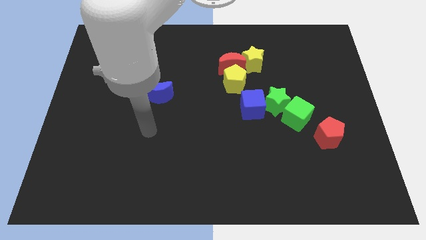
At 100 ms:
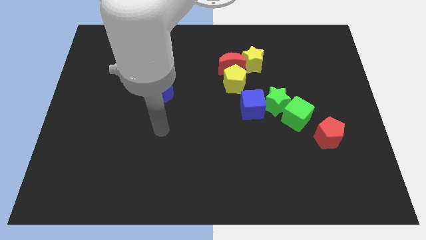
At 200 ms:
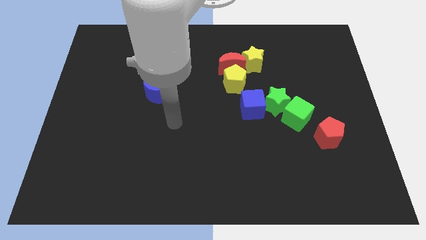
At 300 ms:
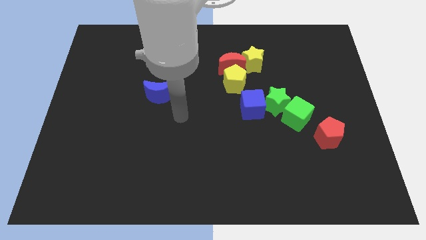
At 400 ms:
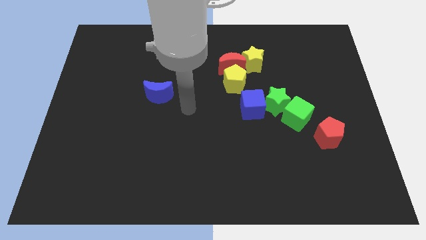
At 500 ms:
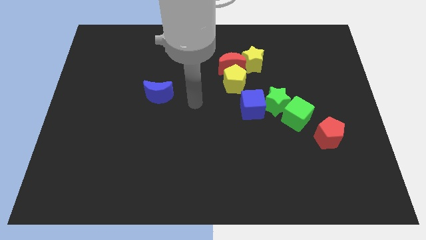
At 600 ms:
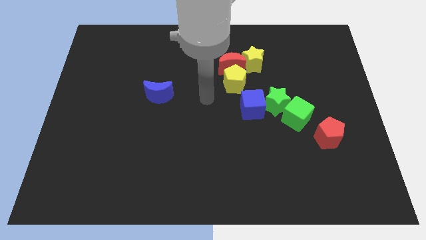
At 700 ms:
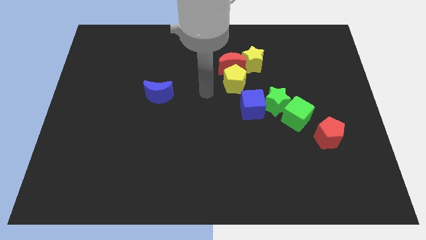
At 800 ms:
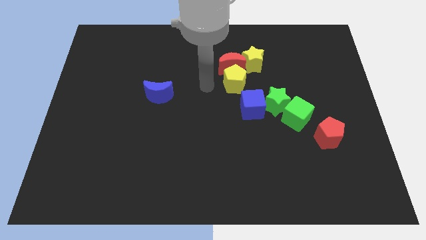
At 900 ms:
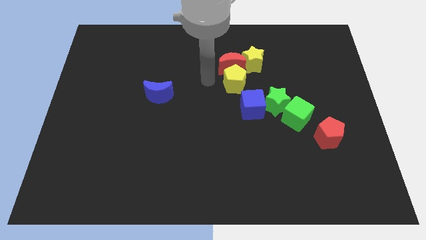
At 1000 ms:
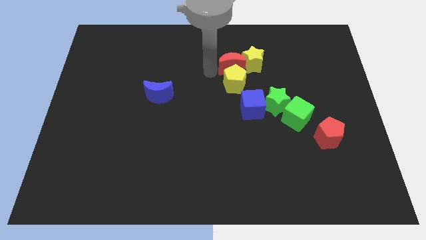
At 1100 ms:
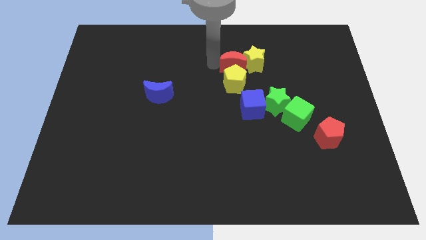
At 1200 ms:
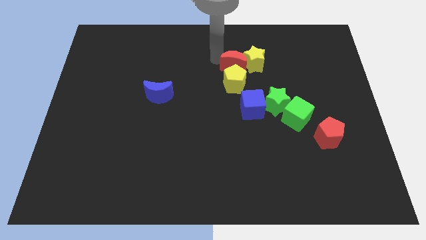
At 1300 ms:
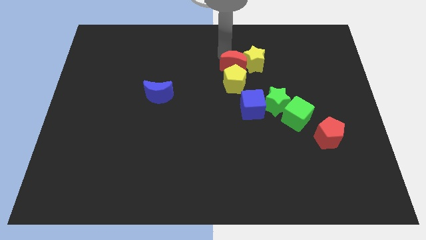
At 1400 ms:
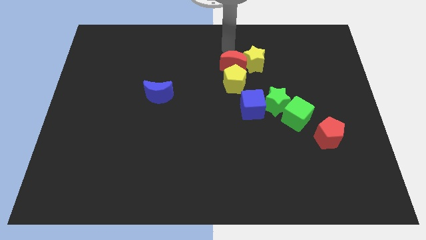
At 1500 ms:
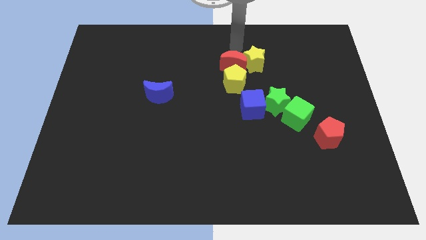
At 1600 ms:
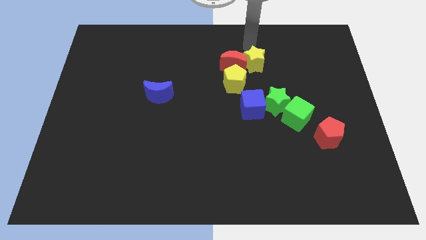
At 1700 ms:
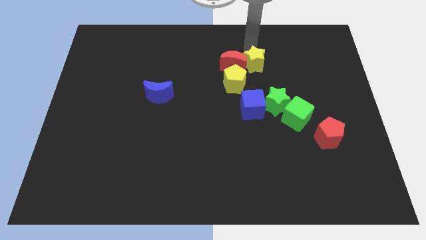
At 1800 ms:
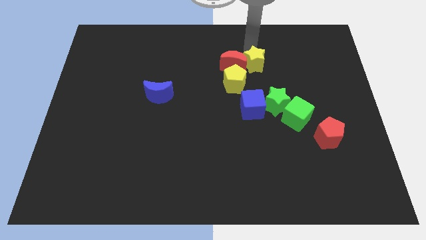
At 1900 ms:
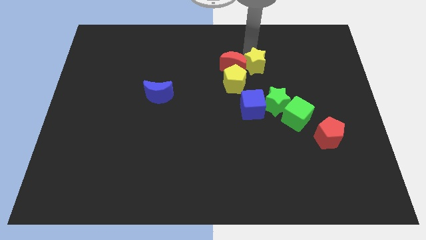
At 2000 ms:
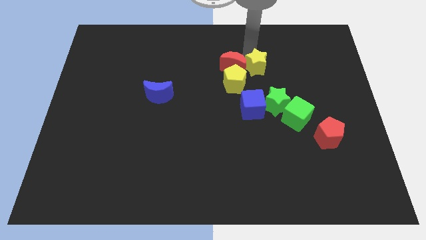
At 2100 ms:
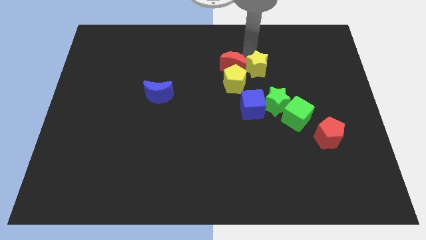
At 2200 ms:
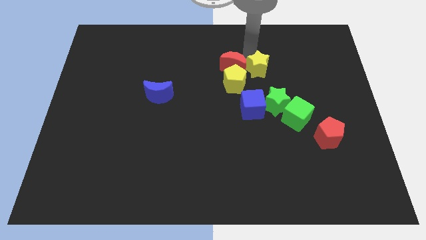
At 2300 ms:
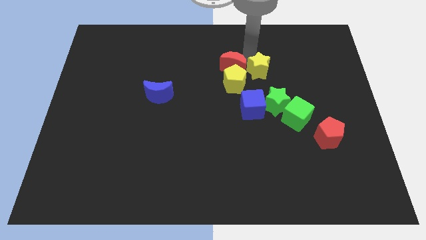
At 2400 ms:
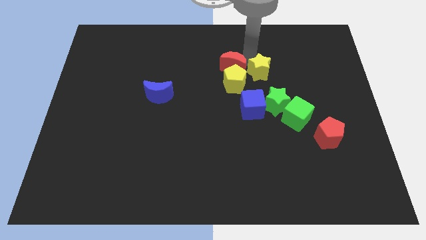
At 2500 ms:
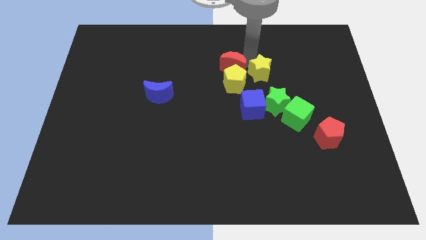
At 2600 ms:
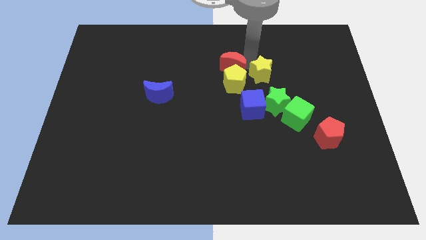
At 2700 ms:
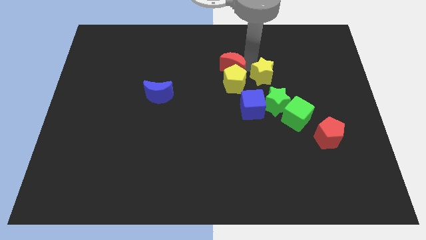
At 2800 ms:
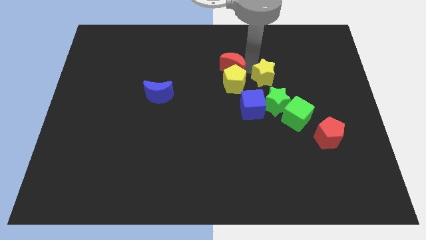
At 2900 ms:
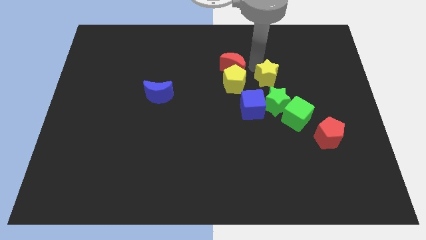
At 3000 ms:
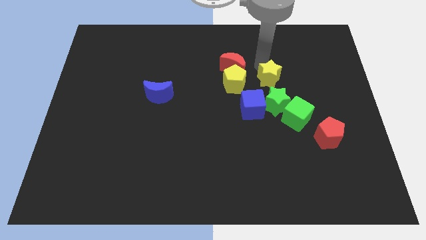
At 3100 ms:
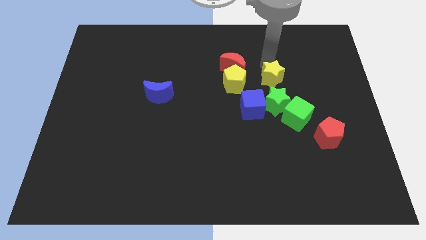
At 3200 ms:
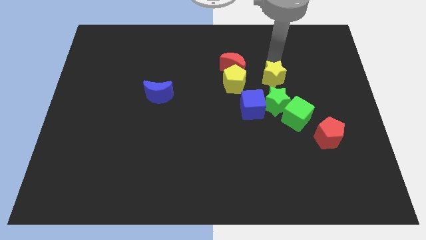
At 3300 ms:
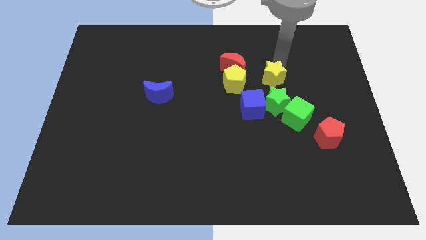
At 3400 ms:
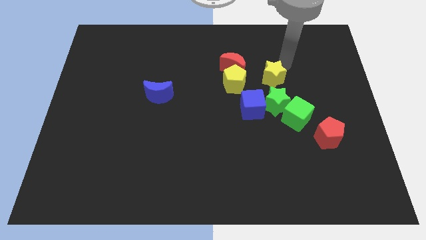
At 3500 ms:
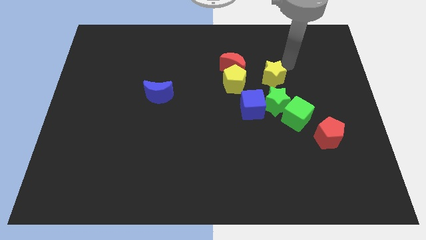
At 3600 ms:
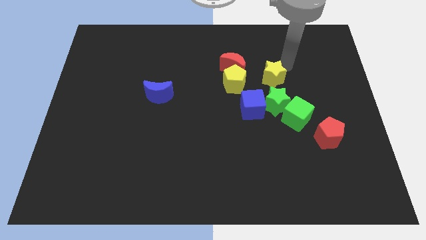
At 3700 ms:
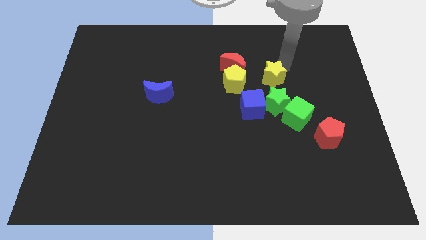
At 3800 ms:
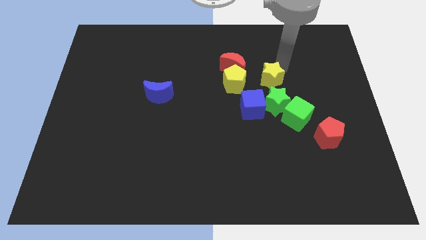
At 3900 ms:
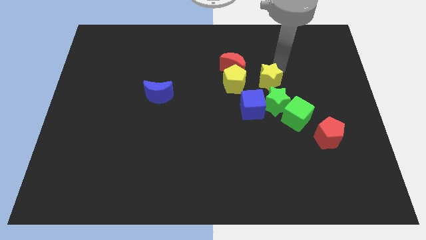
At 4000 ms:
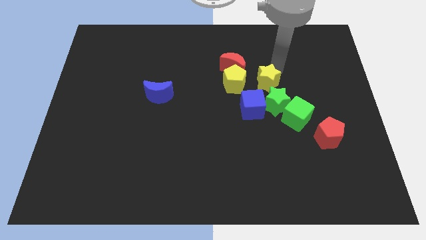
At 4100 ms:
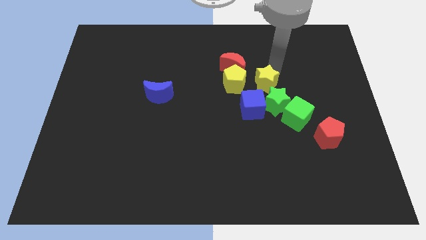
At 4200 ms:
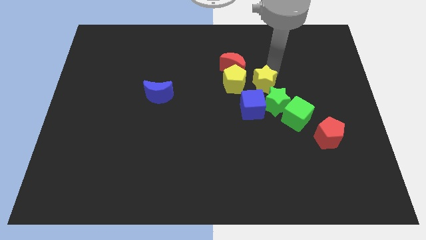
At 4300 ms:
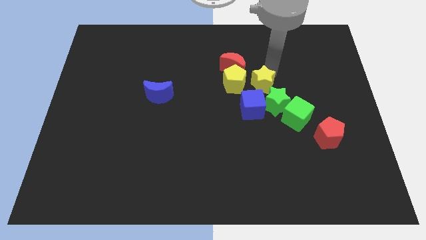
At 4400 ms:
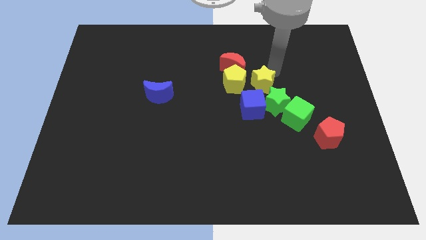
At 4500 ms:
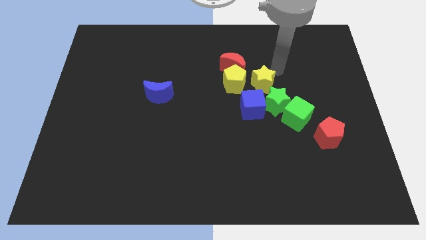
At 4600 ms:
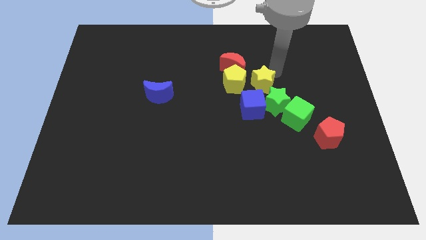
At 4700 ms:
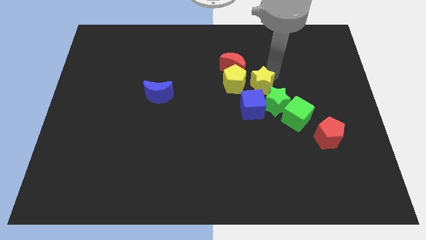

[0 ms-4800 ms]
slide the yellow star to the middle of the board

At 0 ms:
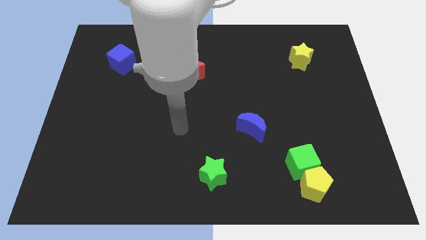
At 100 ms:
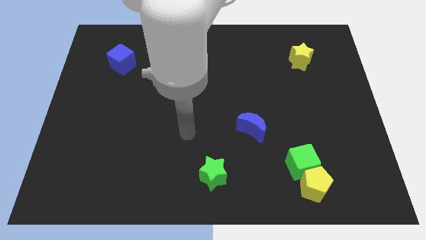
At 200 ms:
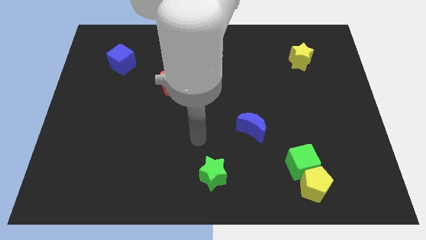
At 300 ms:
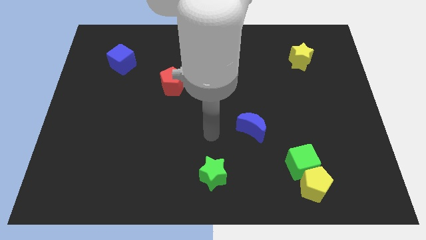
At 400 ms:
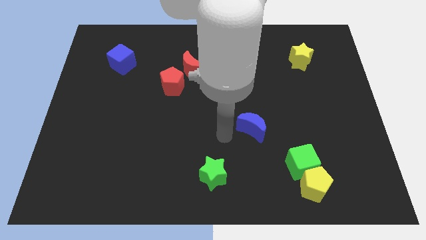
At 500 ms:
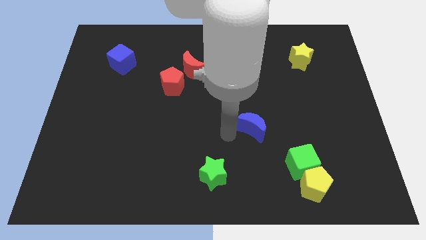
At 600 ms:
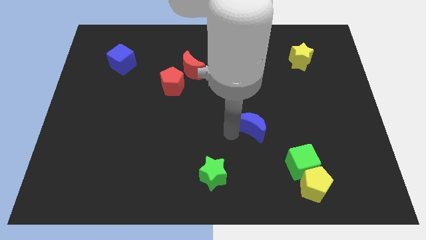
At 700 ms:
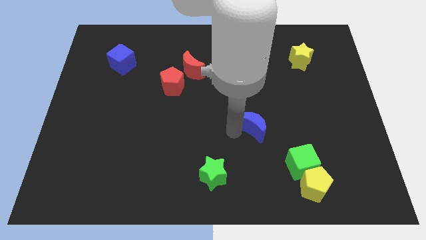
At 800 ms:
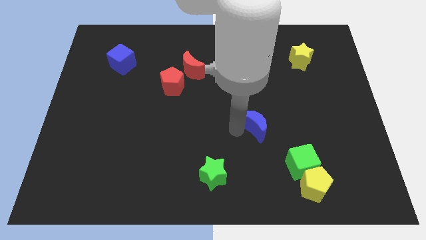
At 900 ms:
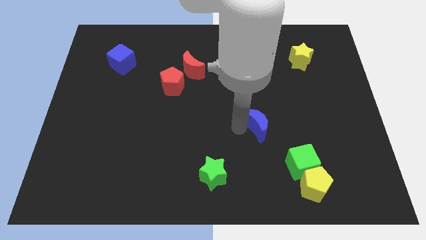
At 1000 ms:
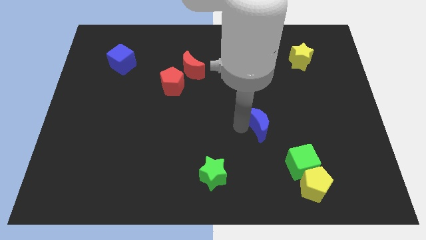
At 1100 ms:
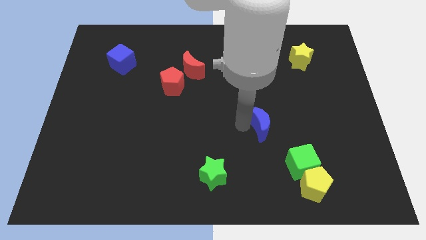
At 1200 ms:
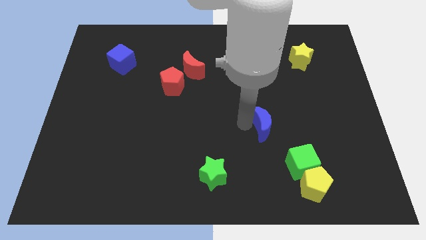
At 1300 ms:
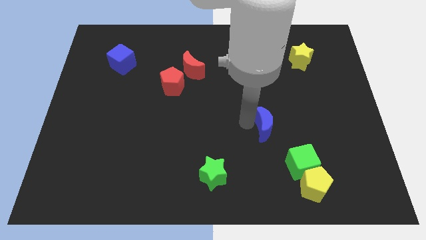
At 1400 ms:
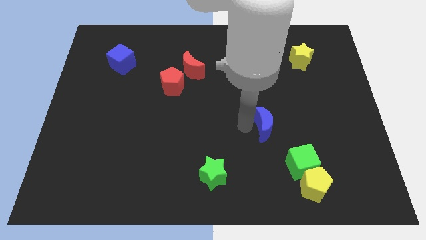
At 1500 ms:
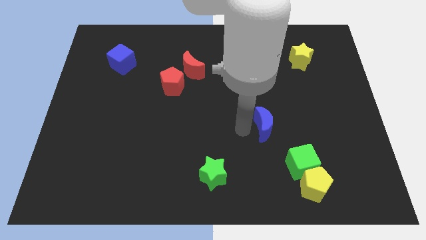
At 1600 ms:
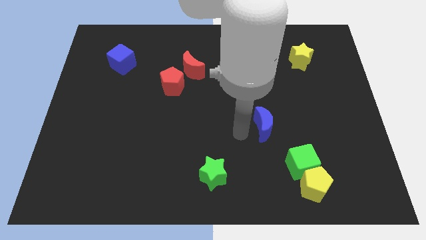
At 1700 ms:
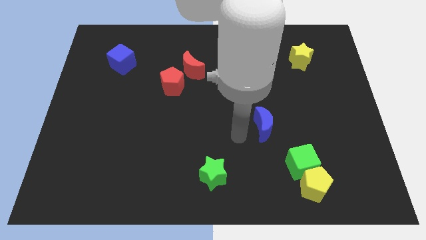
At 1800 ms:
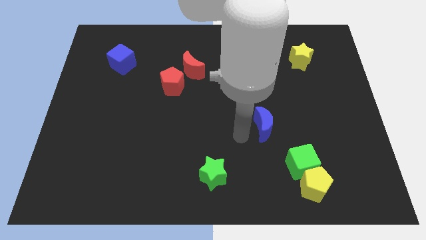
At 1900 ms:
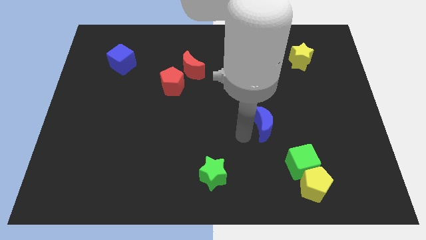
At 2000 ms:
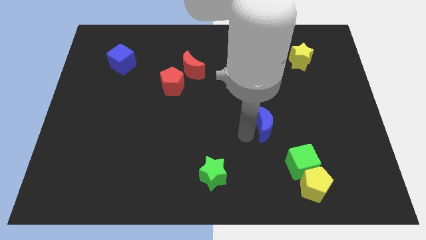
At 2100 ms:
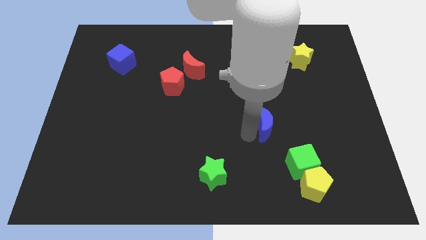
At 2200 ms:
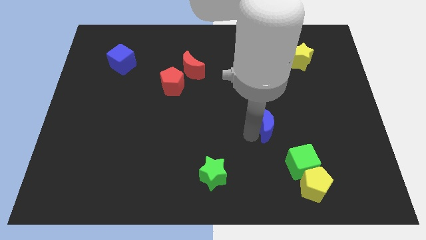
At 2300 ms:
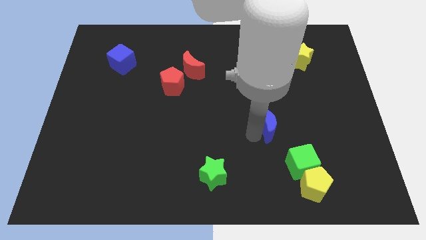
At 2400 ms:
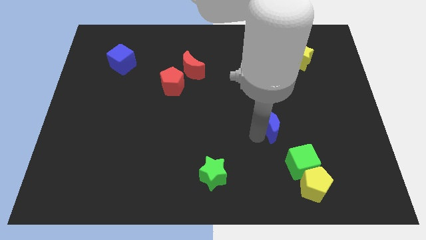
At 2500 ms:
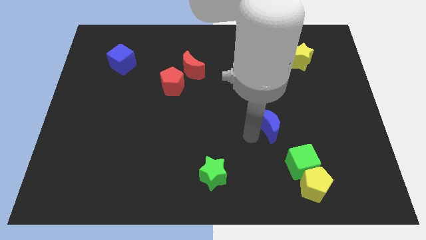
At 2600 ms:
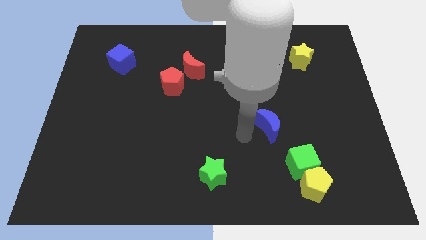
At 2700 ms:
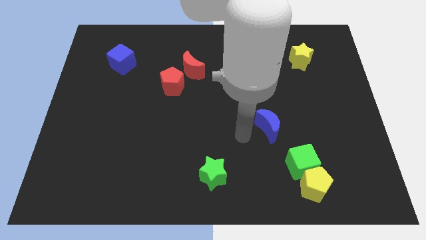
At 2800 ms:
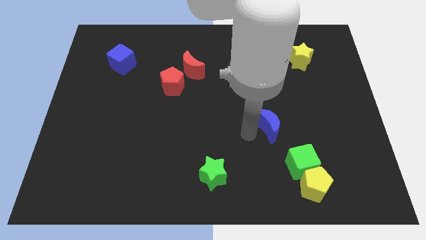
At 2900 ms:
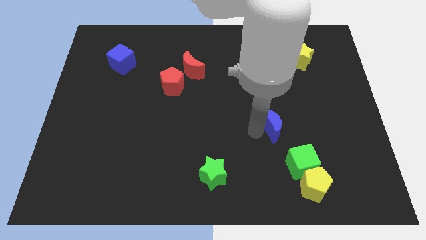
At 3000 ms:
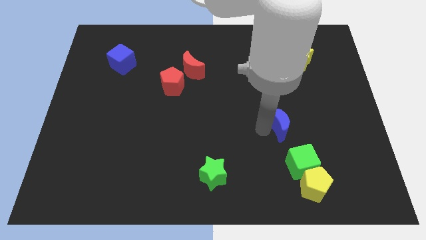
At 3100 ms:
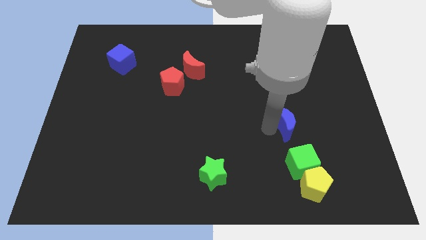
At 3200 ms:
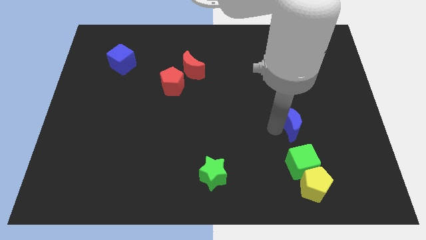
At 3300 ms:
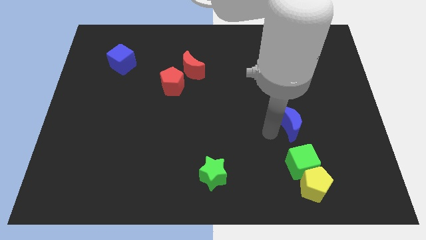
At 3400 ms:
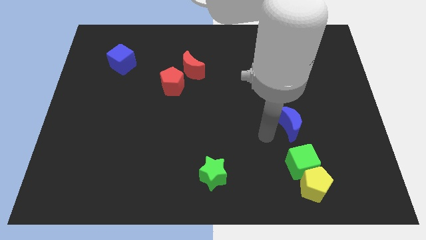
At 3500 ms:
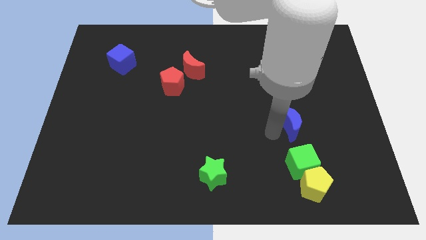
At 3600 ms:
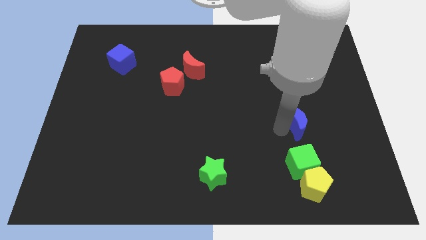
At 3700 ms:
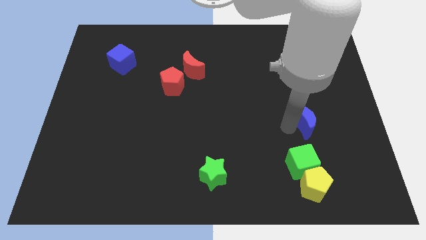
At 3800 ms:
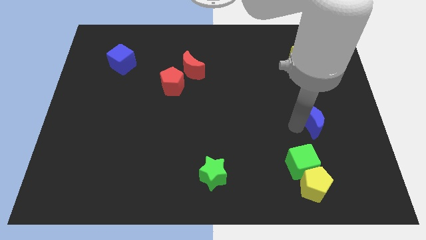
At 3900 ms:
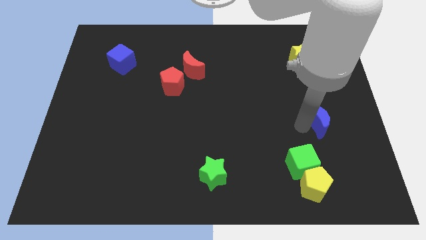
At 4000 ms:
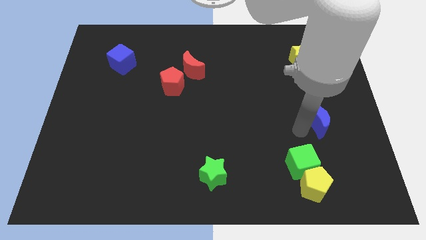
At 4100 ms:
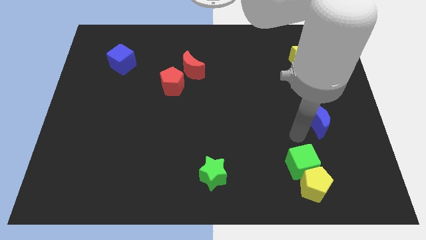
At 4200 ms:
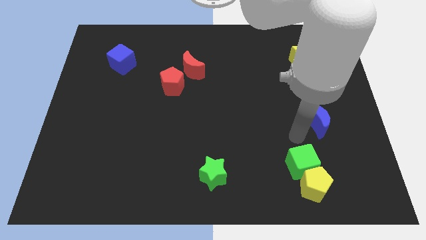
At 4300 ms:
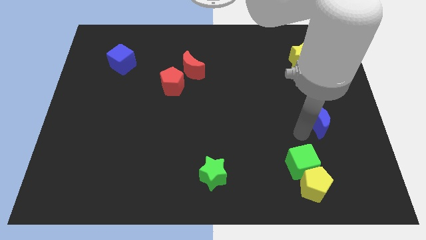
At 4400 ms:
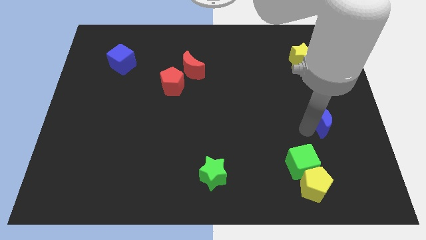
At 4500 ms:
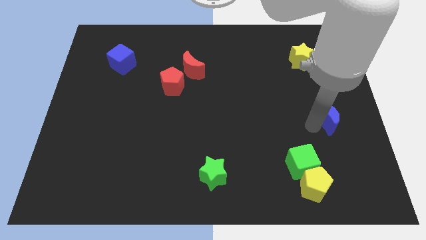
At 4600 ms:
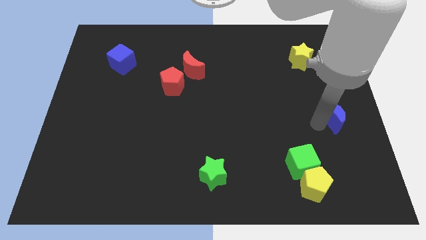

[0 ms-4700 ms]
slide the blue moon to the right side of the board
